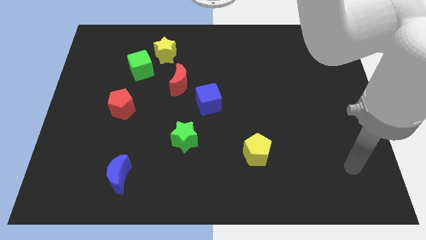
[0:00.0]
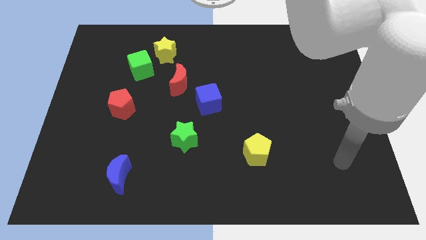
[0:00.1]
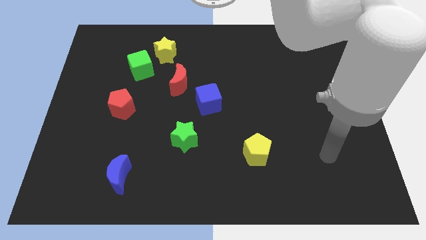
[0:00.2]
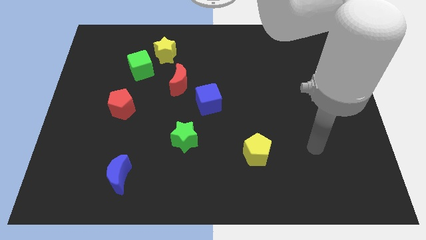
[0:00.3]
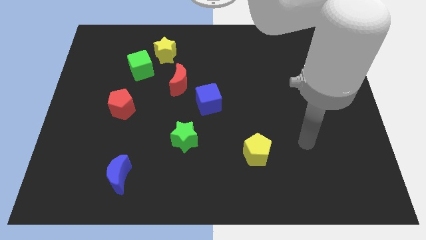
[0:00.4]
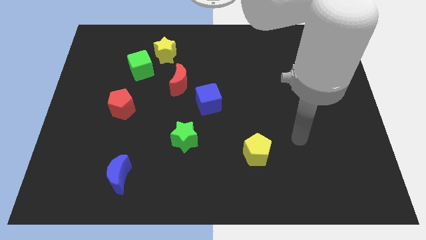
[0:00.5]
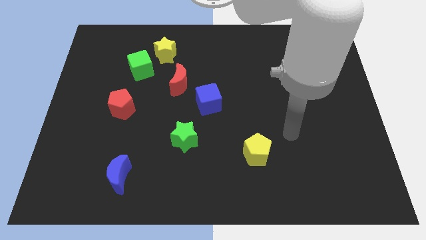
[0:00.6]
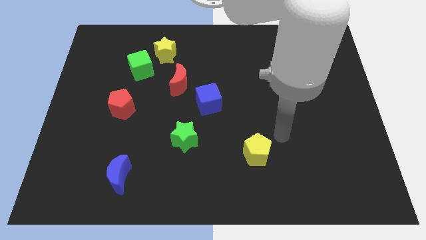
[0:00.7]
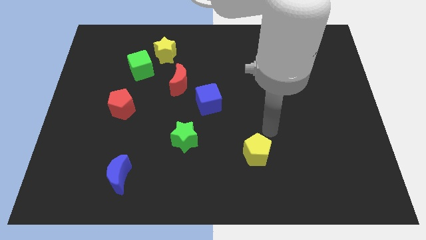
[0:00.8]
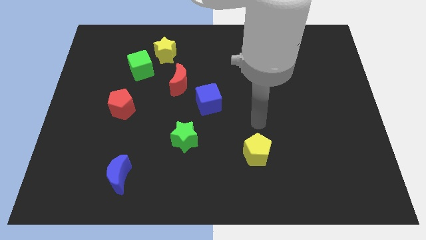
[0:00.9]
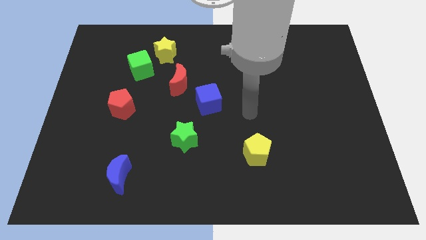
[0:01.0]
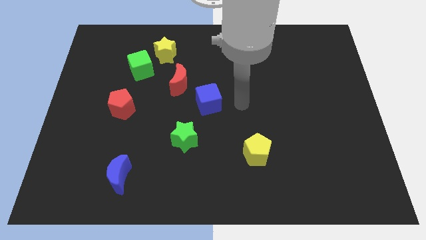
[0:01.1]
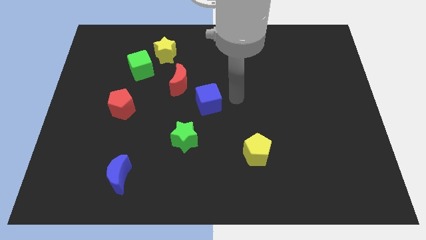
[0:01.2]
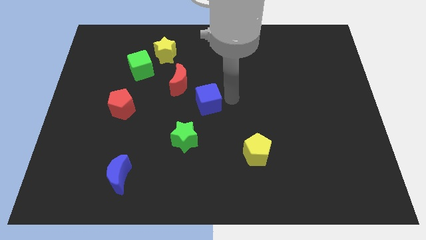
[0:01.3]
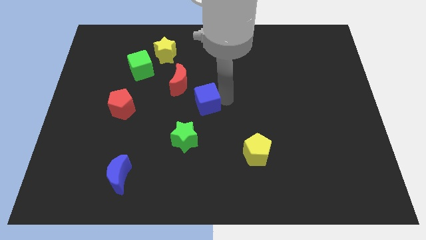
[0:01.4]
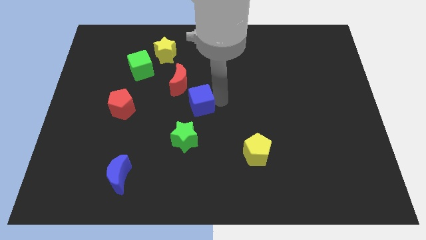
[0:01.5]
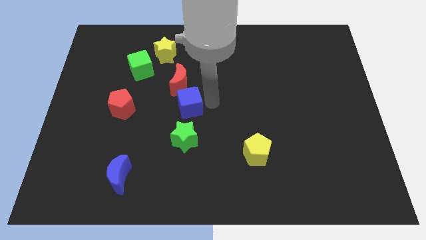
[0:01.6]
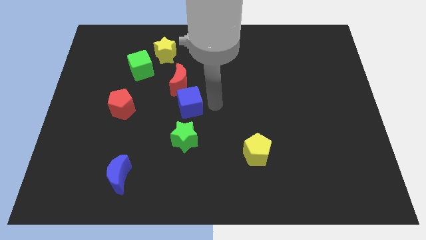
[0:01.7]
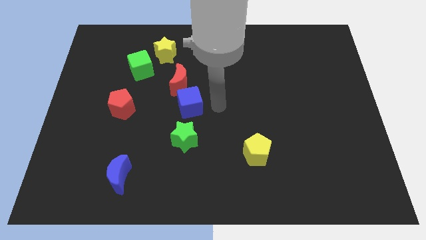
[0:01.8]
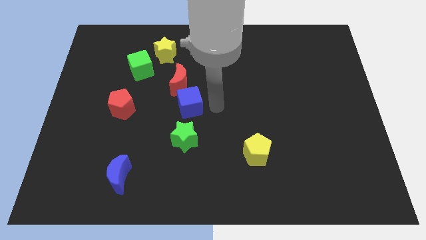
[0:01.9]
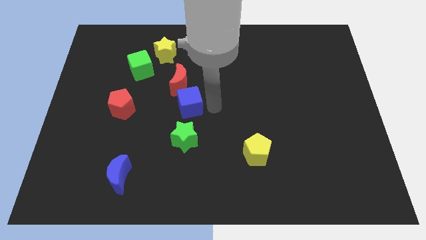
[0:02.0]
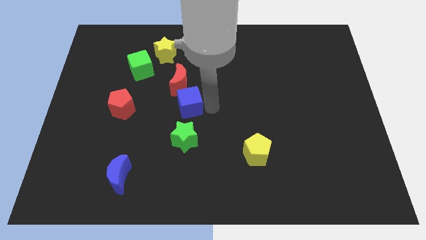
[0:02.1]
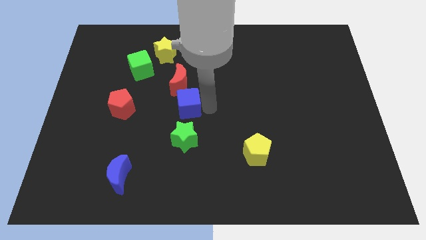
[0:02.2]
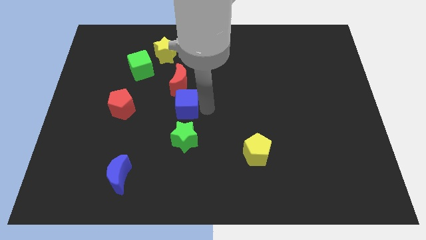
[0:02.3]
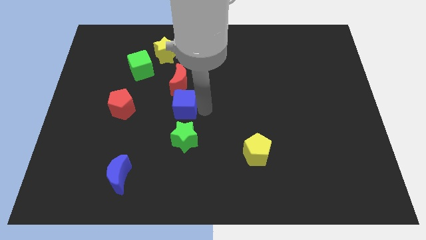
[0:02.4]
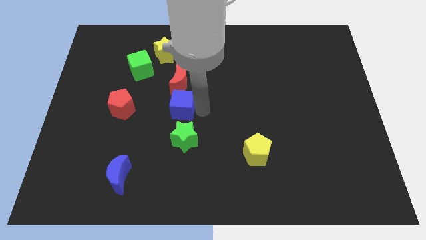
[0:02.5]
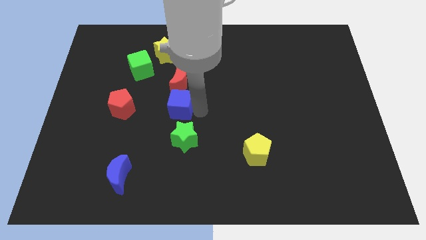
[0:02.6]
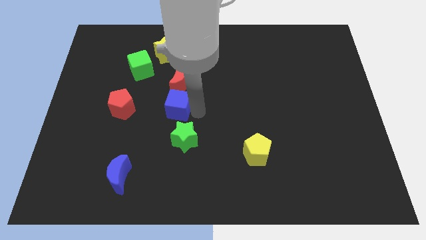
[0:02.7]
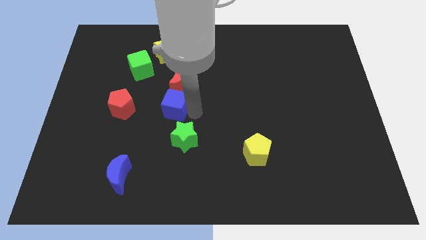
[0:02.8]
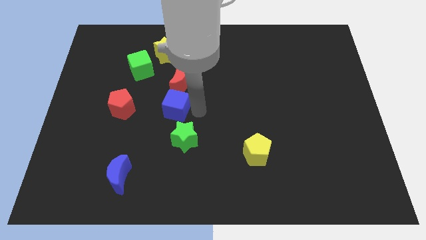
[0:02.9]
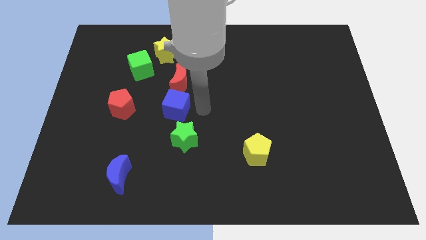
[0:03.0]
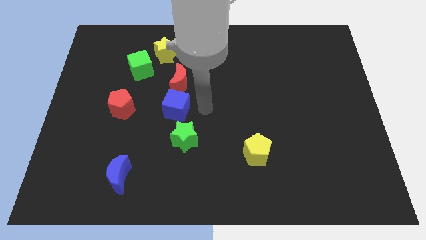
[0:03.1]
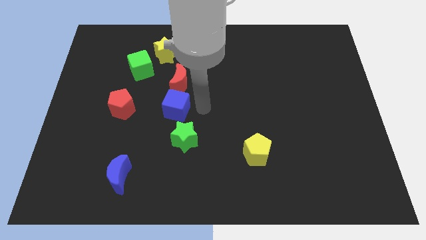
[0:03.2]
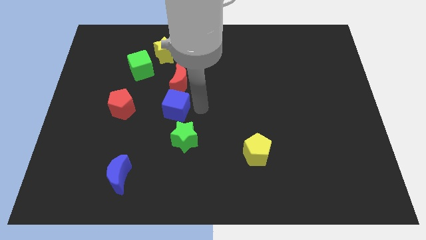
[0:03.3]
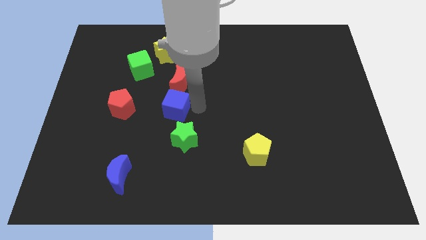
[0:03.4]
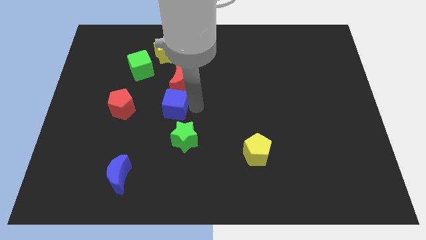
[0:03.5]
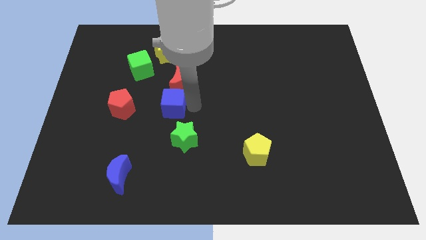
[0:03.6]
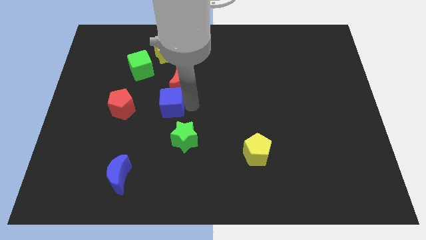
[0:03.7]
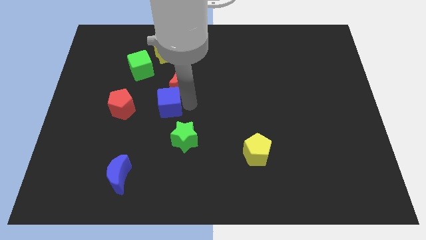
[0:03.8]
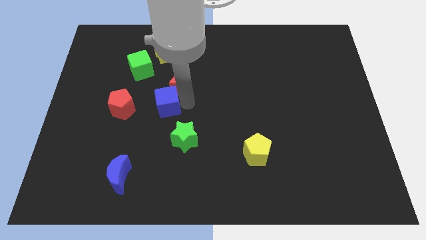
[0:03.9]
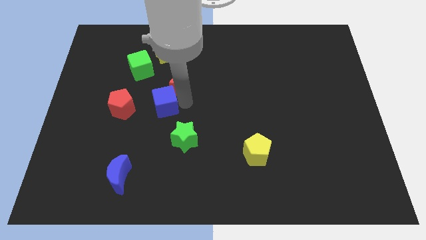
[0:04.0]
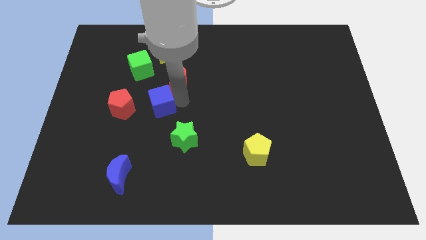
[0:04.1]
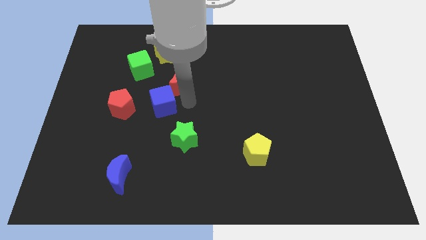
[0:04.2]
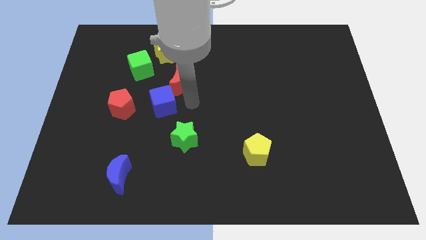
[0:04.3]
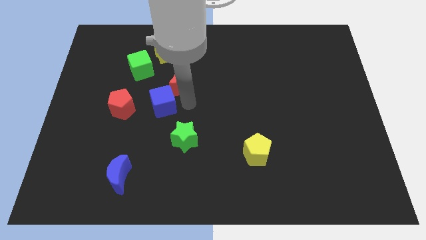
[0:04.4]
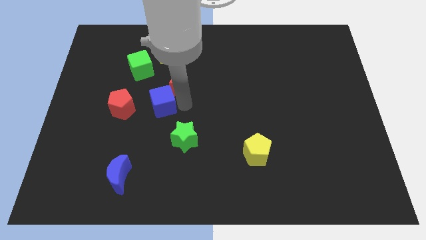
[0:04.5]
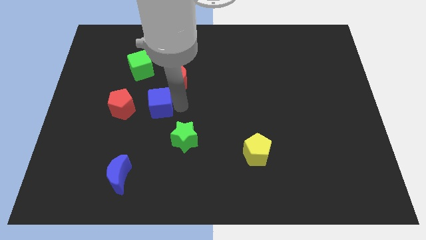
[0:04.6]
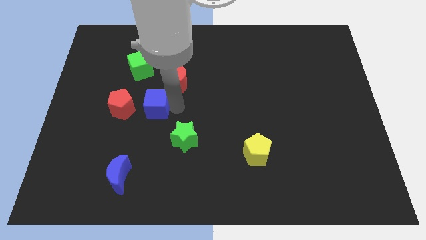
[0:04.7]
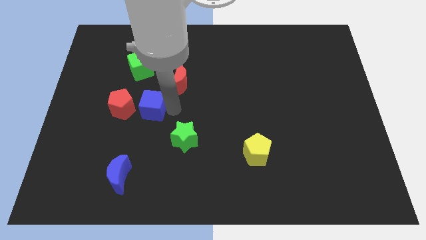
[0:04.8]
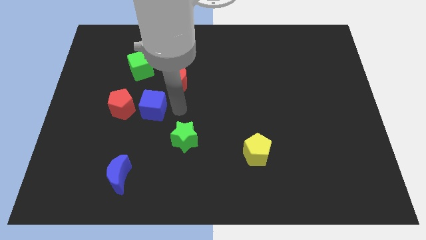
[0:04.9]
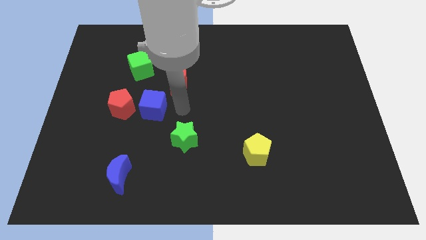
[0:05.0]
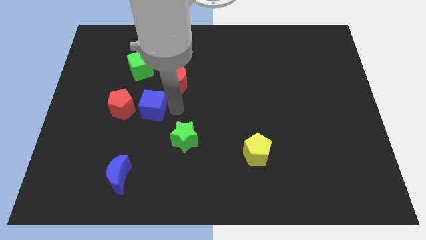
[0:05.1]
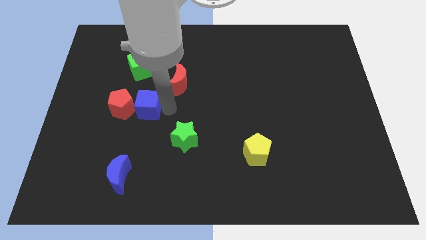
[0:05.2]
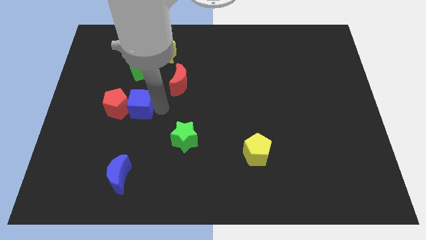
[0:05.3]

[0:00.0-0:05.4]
push the blue cube close to the red pentagon

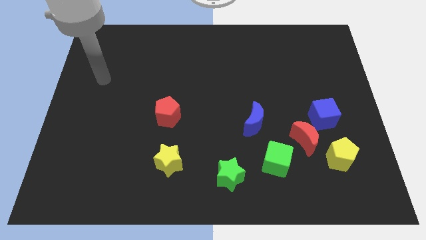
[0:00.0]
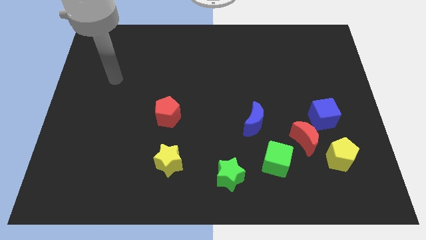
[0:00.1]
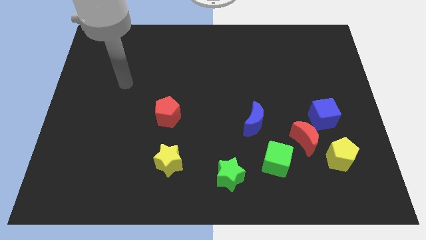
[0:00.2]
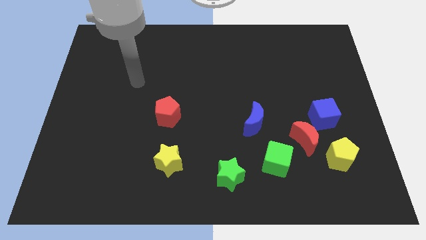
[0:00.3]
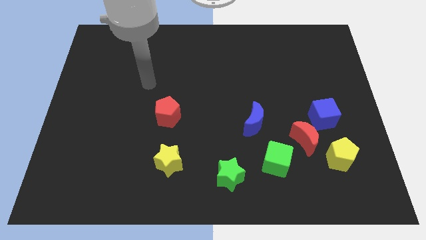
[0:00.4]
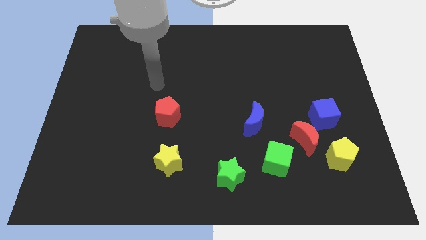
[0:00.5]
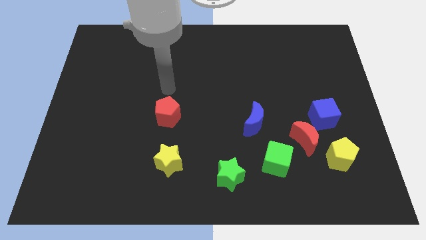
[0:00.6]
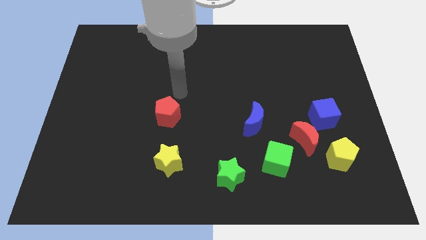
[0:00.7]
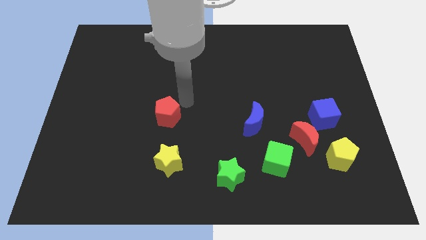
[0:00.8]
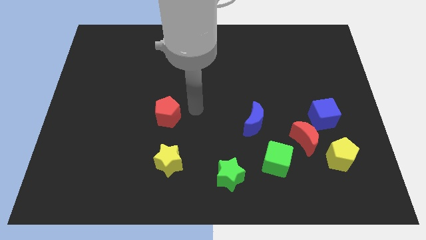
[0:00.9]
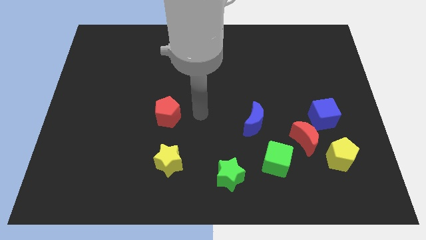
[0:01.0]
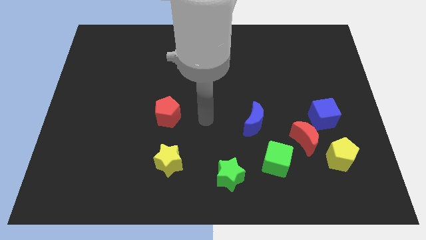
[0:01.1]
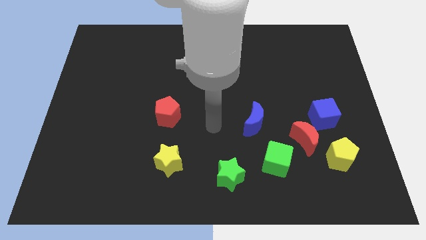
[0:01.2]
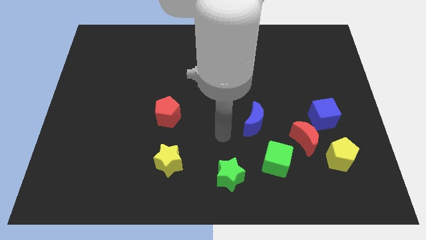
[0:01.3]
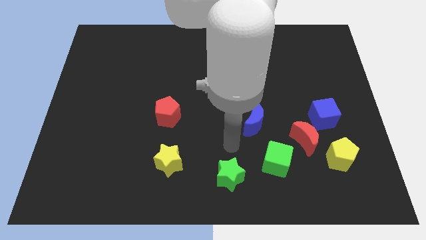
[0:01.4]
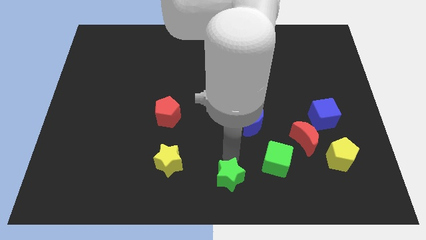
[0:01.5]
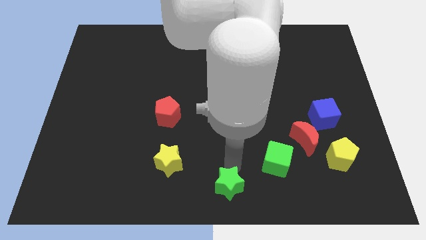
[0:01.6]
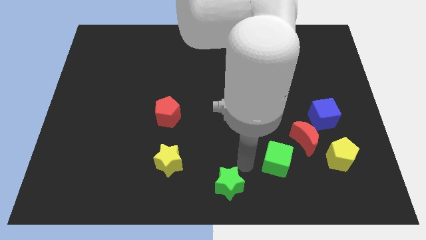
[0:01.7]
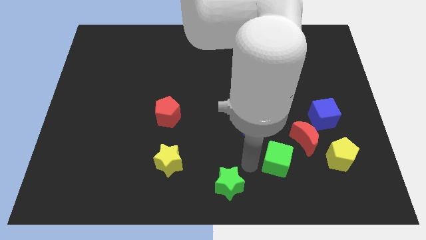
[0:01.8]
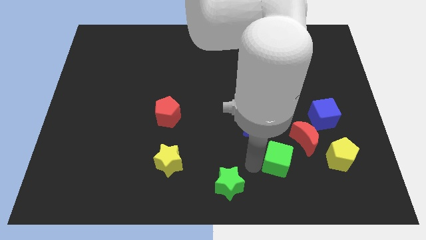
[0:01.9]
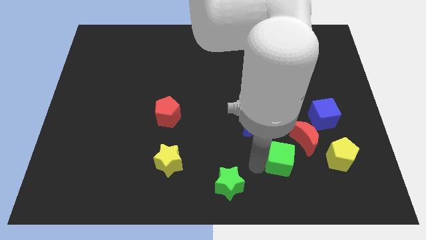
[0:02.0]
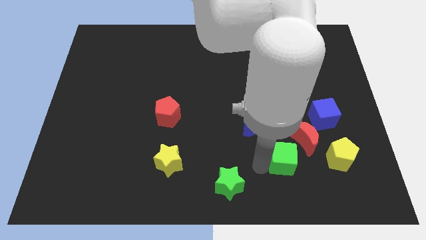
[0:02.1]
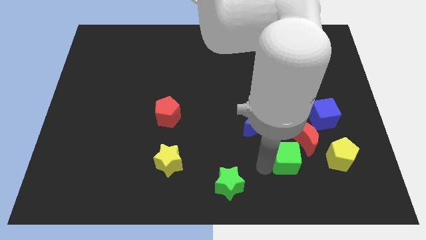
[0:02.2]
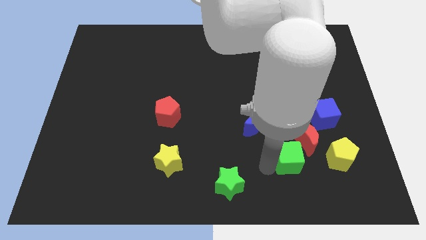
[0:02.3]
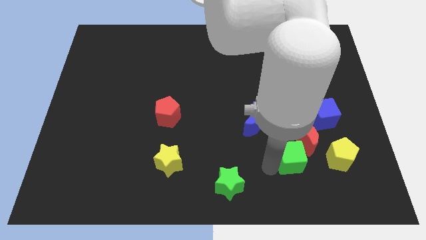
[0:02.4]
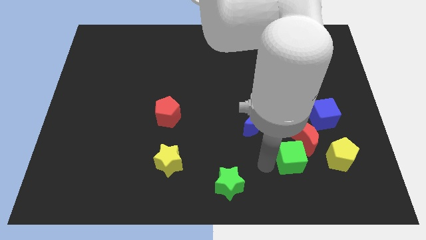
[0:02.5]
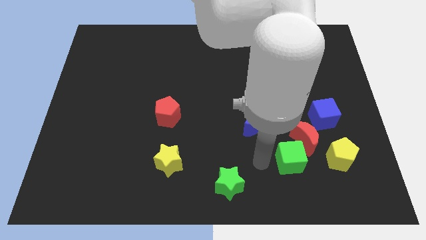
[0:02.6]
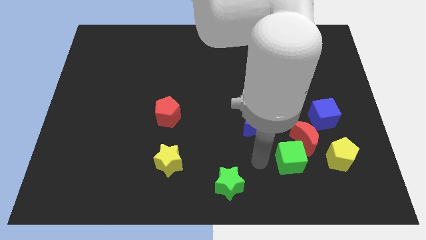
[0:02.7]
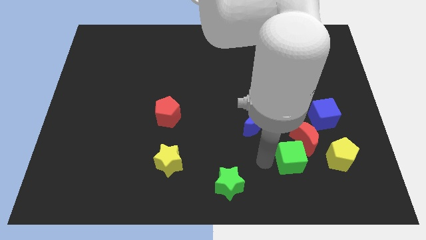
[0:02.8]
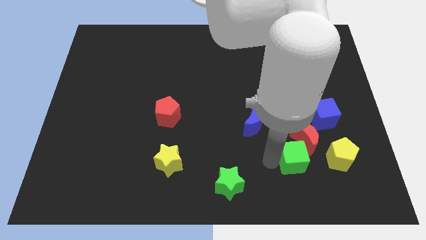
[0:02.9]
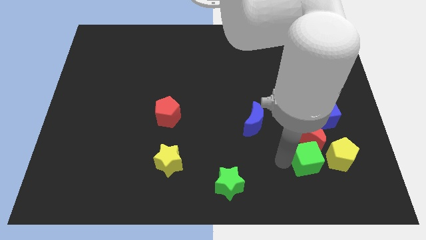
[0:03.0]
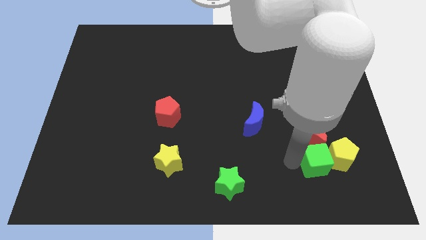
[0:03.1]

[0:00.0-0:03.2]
push the green cube towards the yellow pentagon
